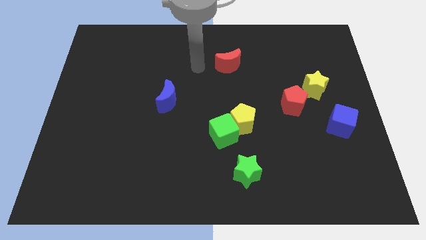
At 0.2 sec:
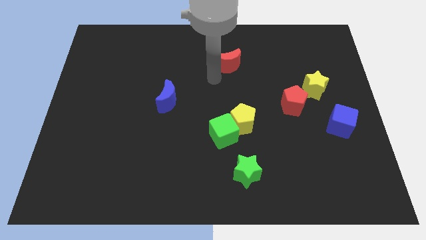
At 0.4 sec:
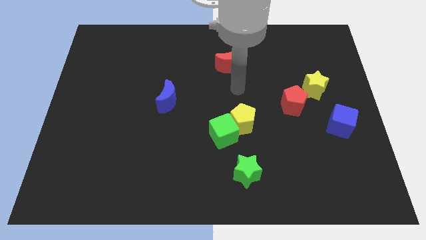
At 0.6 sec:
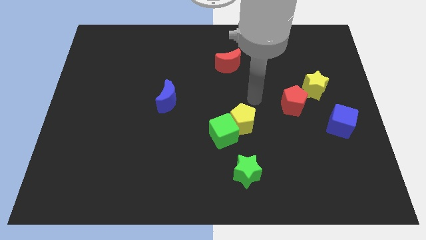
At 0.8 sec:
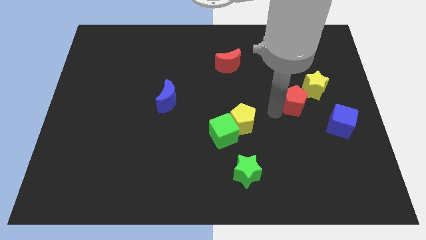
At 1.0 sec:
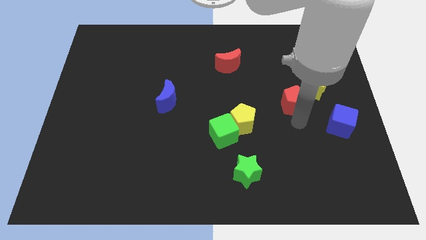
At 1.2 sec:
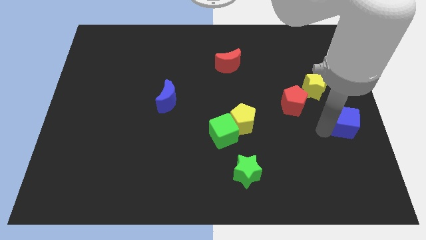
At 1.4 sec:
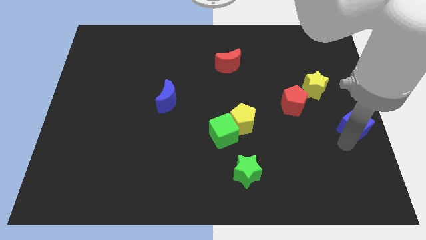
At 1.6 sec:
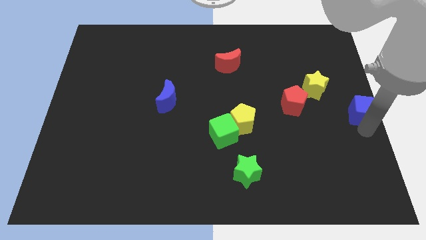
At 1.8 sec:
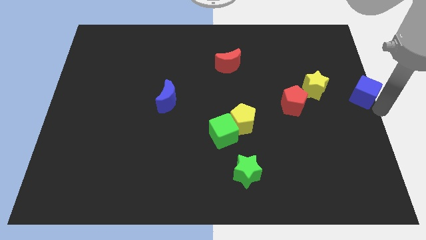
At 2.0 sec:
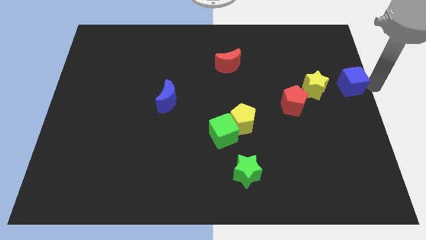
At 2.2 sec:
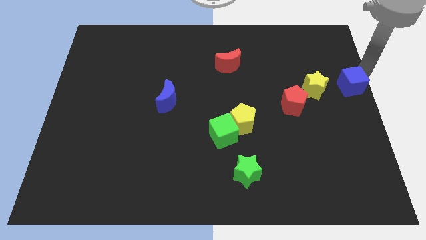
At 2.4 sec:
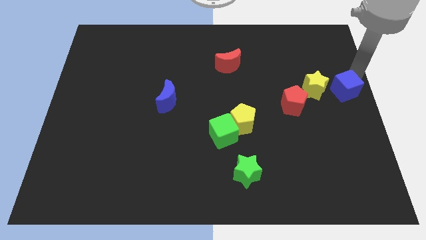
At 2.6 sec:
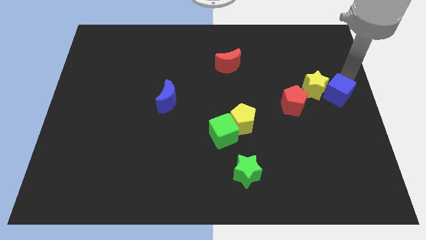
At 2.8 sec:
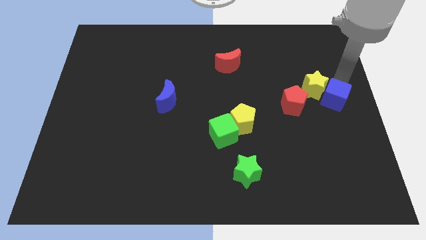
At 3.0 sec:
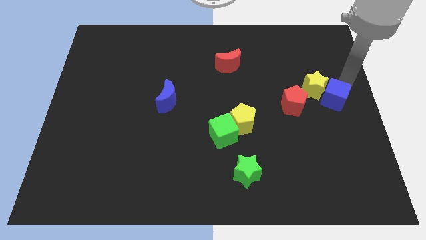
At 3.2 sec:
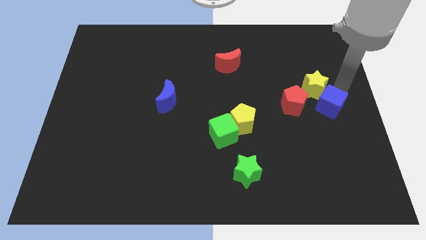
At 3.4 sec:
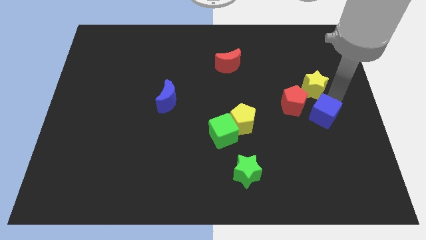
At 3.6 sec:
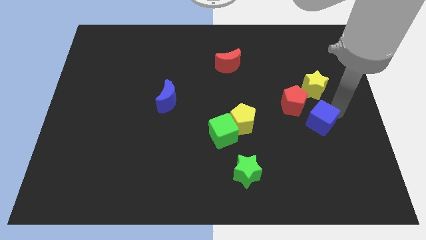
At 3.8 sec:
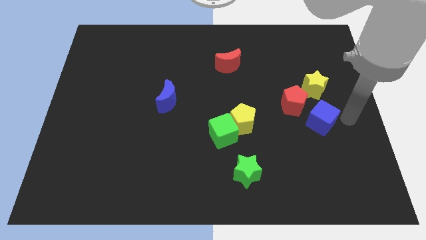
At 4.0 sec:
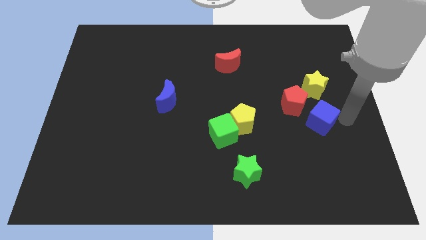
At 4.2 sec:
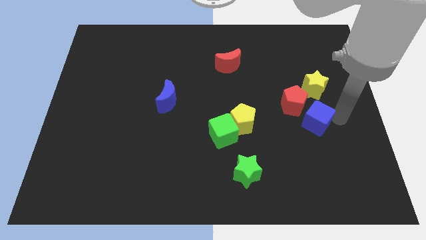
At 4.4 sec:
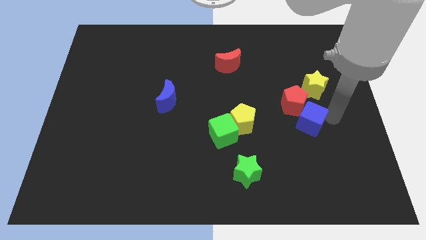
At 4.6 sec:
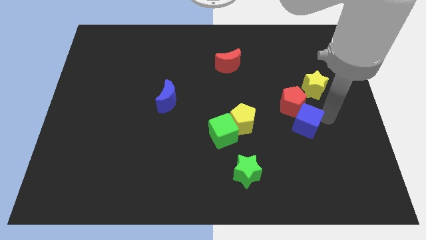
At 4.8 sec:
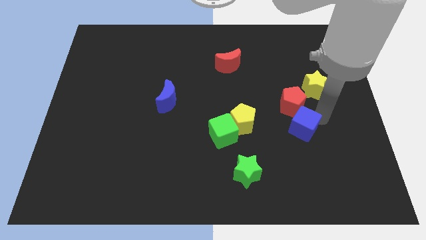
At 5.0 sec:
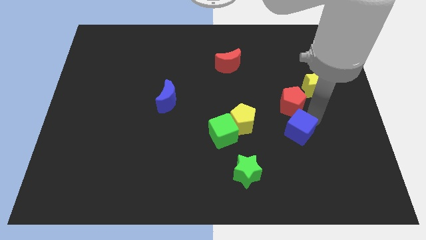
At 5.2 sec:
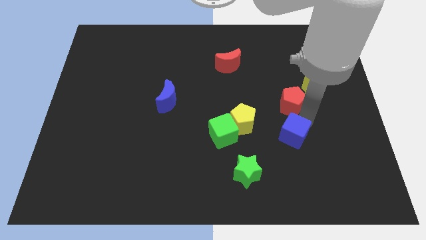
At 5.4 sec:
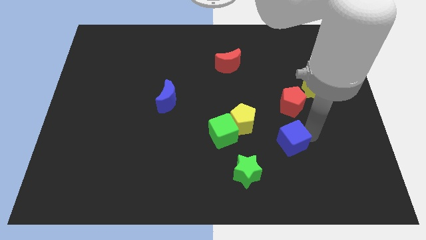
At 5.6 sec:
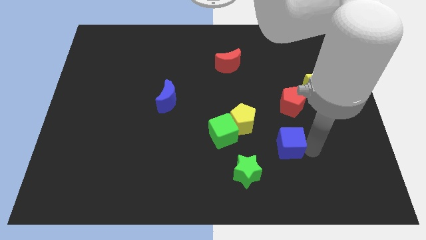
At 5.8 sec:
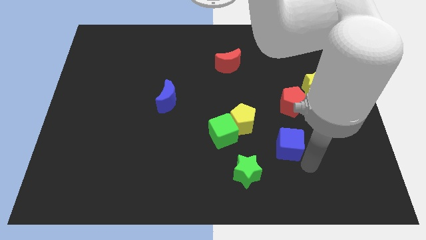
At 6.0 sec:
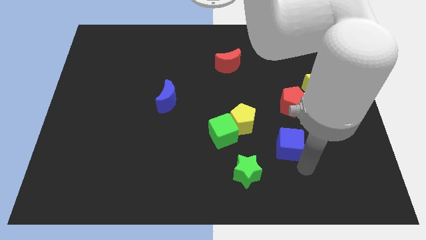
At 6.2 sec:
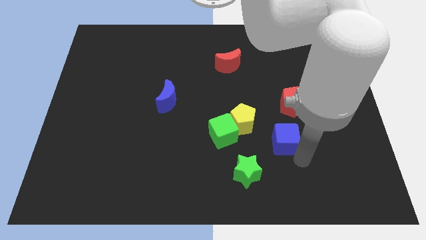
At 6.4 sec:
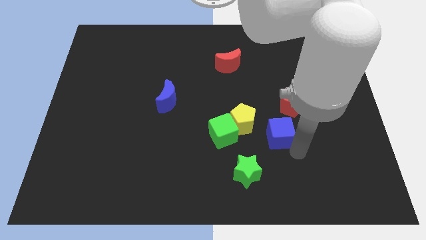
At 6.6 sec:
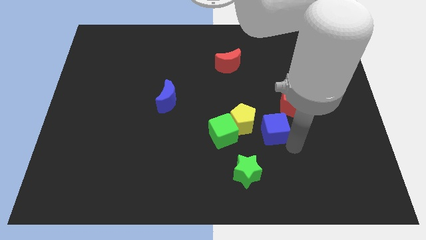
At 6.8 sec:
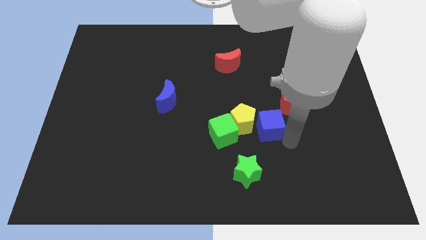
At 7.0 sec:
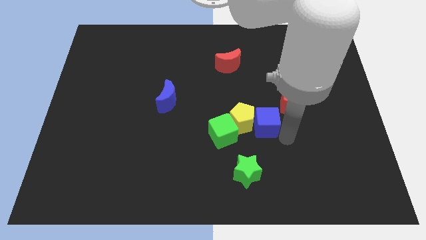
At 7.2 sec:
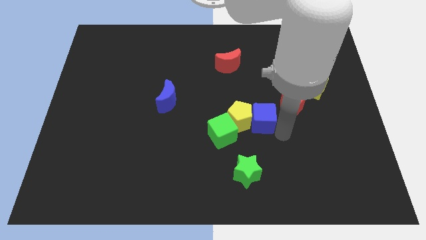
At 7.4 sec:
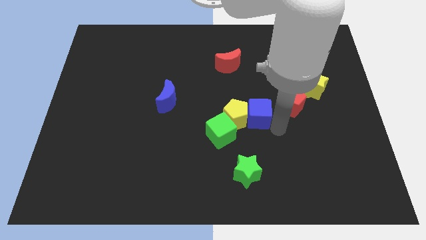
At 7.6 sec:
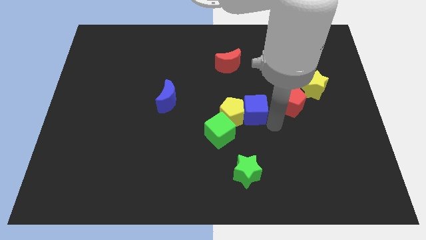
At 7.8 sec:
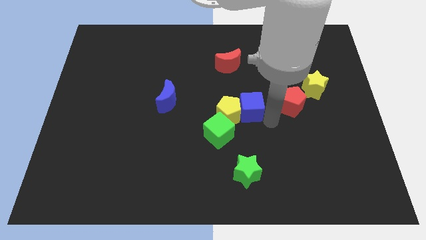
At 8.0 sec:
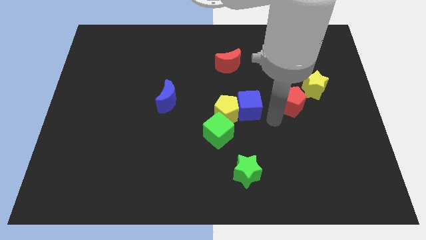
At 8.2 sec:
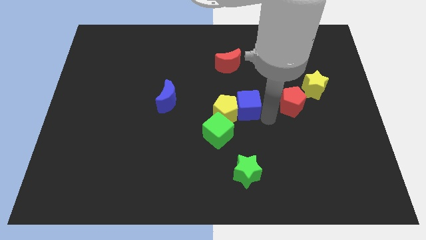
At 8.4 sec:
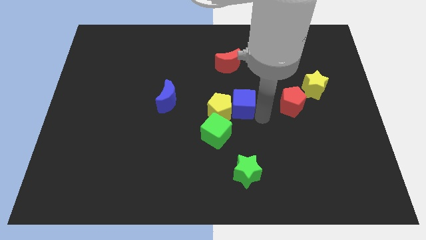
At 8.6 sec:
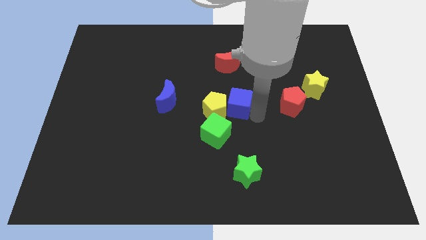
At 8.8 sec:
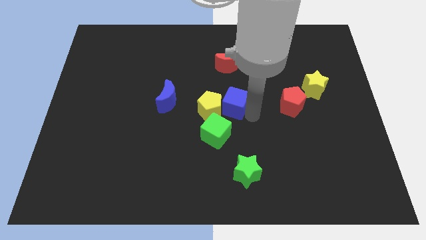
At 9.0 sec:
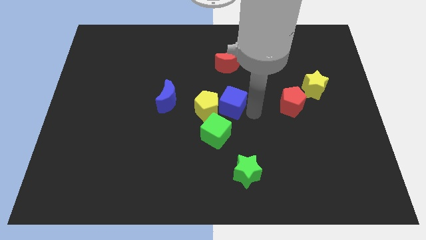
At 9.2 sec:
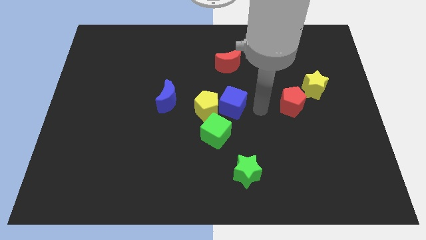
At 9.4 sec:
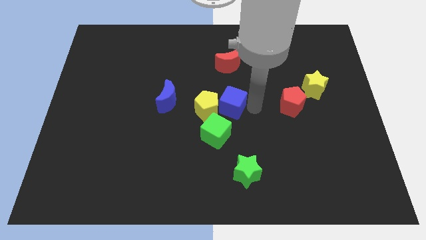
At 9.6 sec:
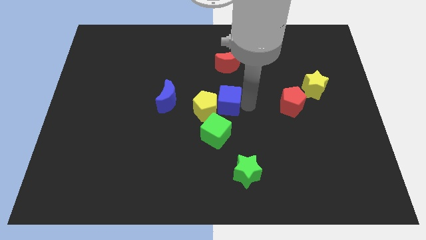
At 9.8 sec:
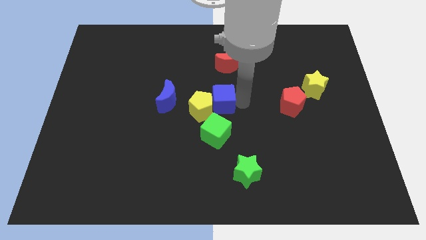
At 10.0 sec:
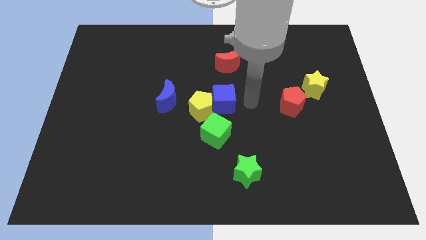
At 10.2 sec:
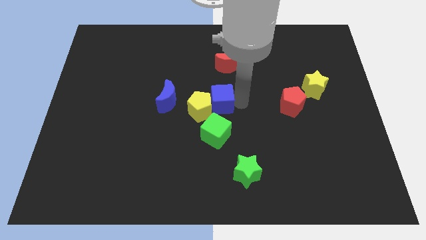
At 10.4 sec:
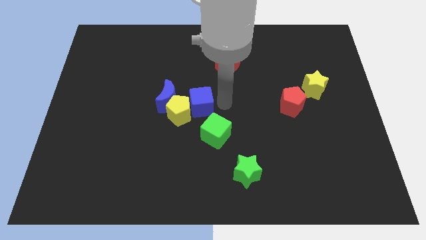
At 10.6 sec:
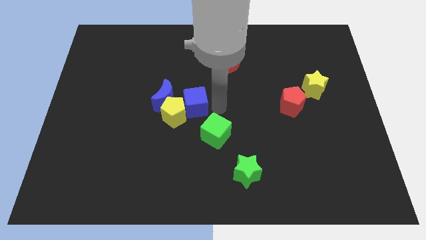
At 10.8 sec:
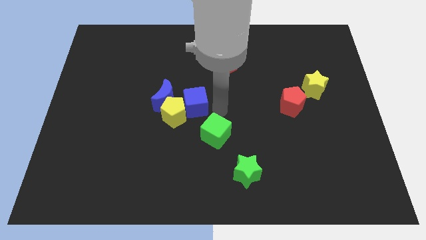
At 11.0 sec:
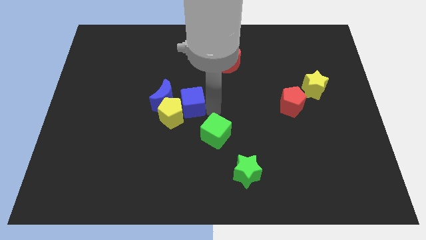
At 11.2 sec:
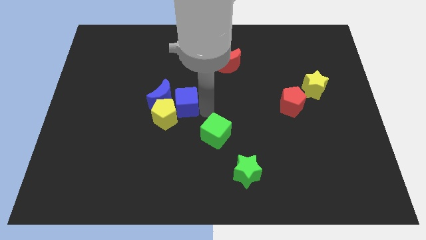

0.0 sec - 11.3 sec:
put the blue cube towards the blue moon

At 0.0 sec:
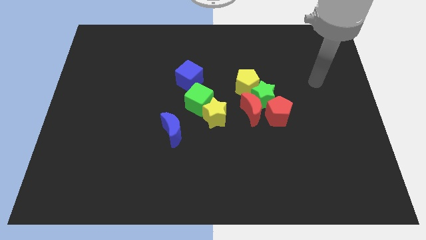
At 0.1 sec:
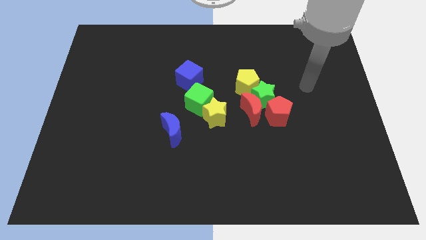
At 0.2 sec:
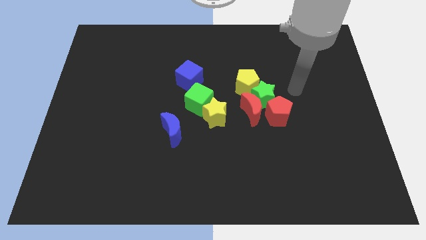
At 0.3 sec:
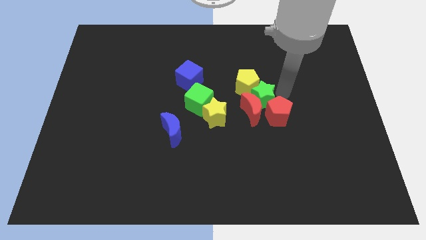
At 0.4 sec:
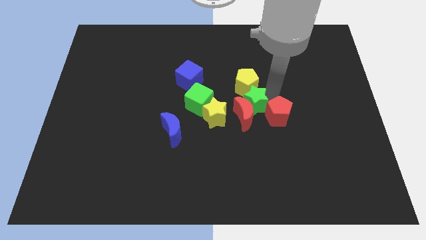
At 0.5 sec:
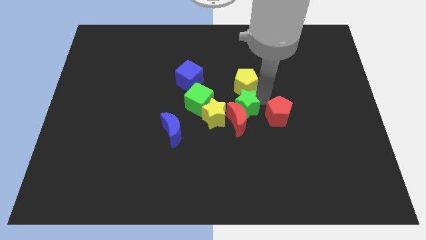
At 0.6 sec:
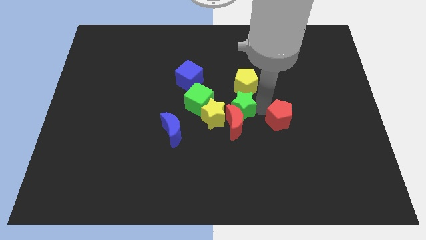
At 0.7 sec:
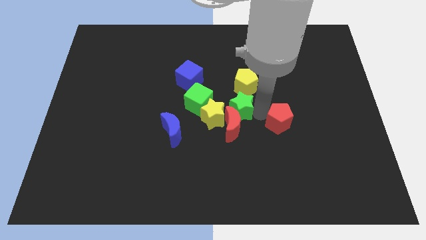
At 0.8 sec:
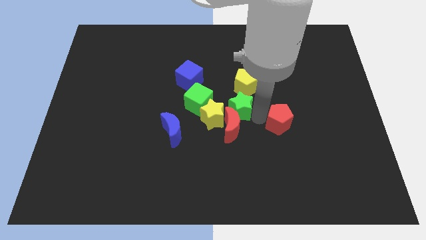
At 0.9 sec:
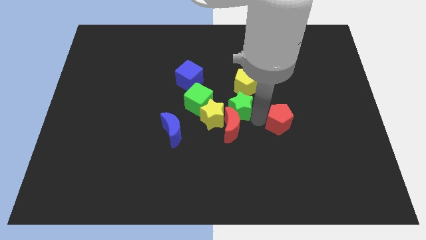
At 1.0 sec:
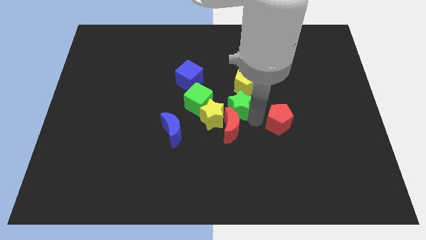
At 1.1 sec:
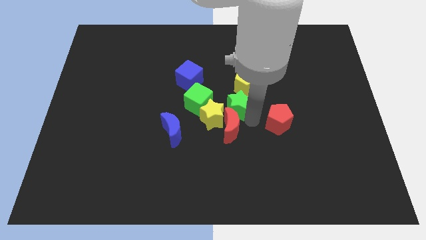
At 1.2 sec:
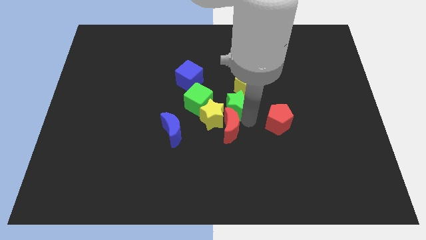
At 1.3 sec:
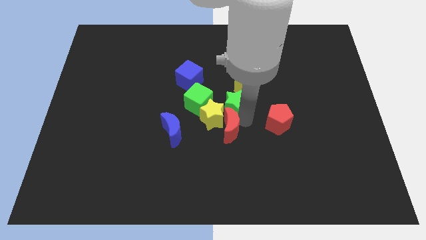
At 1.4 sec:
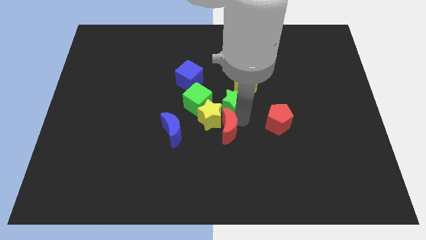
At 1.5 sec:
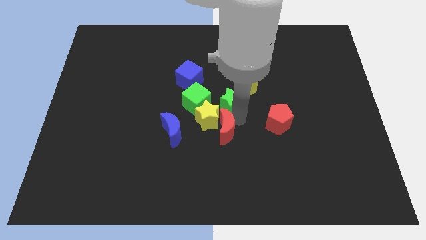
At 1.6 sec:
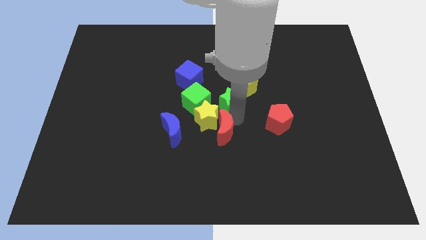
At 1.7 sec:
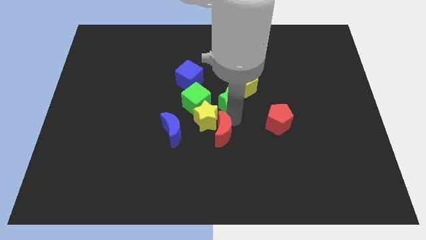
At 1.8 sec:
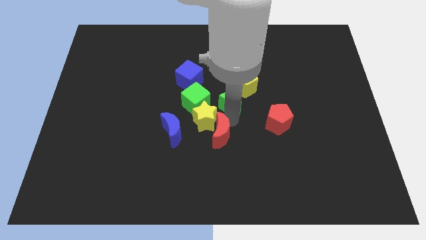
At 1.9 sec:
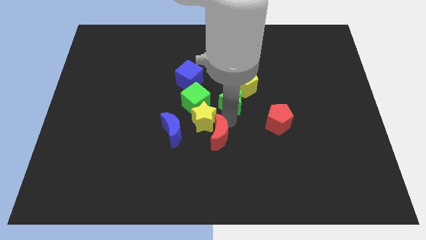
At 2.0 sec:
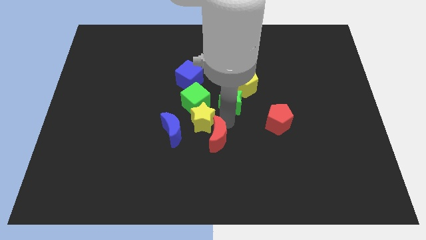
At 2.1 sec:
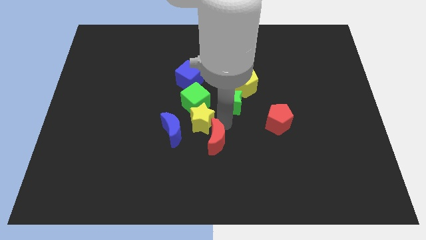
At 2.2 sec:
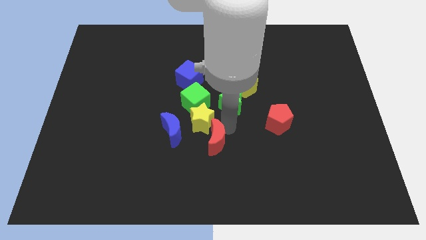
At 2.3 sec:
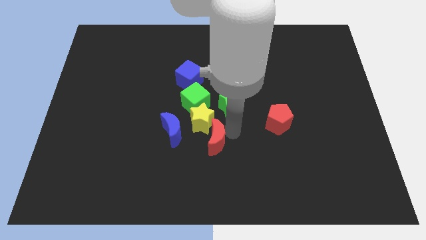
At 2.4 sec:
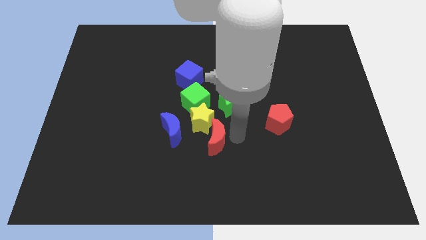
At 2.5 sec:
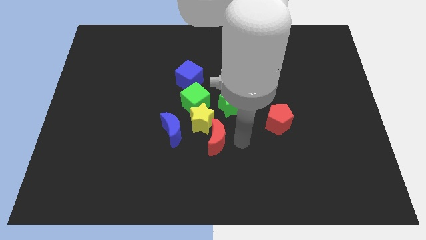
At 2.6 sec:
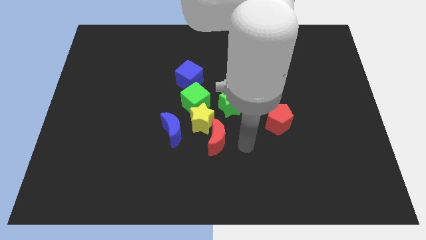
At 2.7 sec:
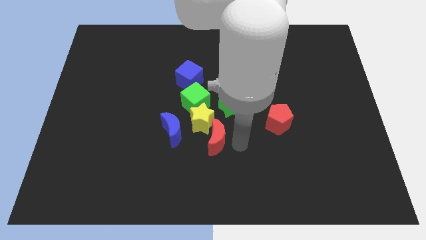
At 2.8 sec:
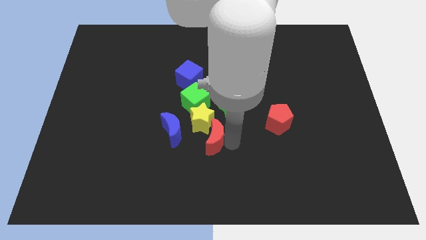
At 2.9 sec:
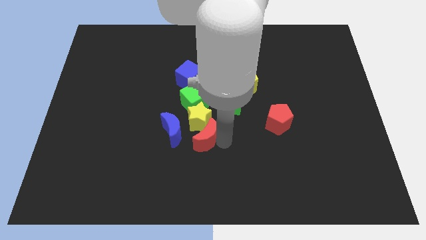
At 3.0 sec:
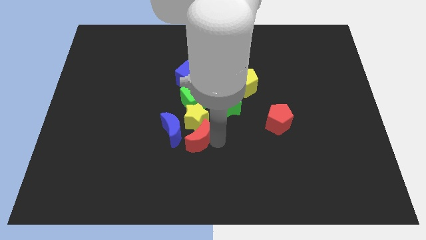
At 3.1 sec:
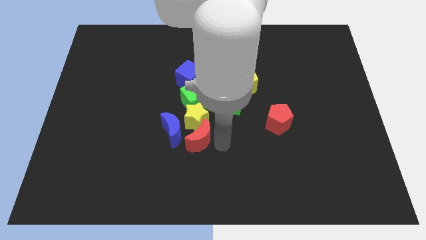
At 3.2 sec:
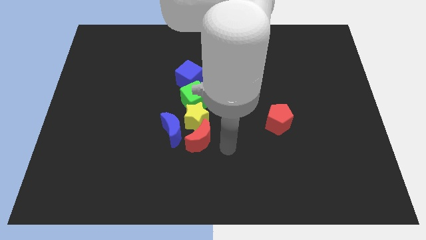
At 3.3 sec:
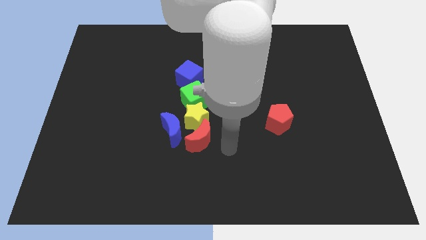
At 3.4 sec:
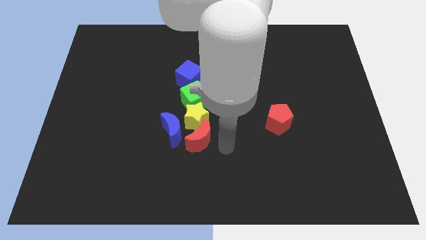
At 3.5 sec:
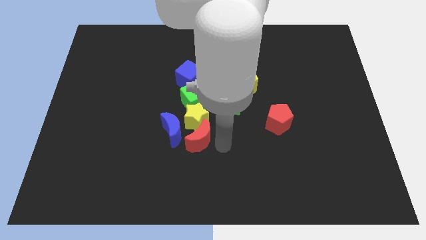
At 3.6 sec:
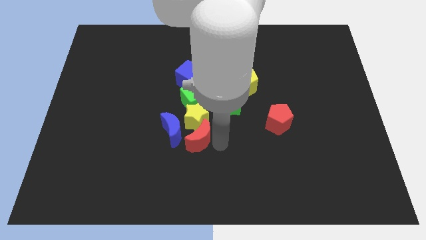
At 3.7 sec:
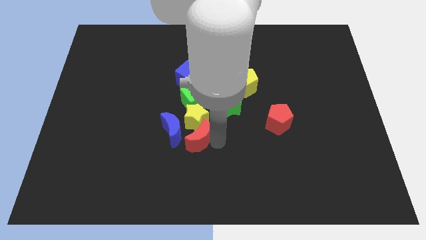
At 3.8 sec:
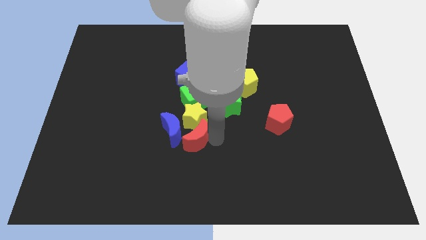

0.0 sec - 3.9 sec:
put the red moon close to the blue moon
